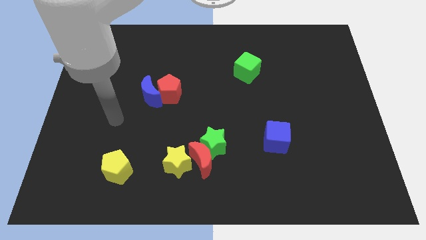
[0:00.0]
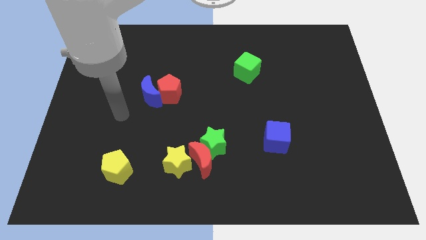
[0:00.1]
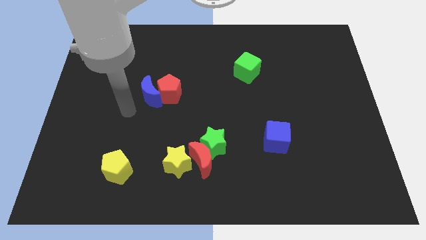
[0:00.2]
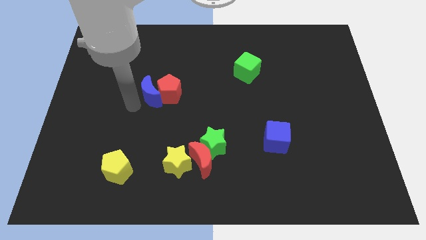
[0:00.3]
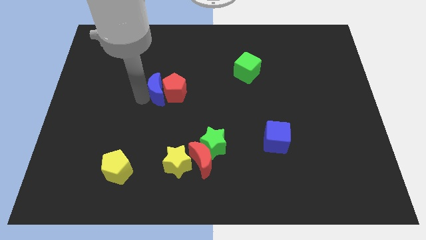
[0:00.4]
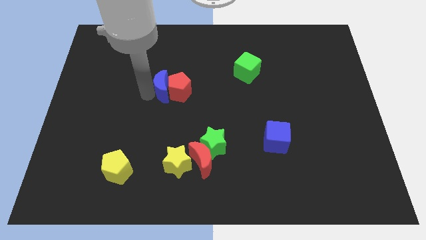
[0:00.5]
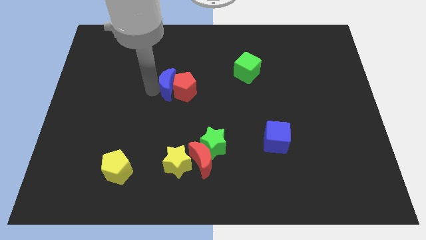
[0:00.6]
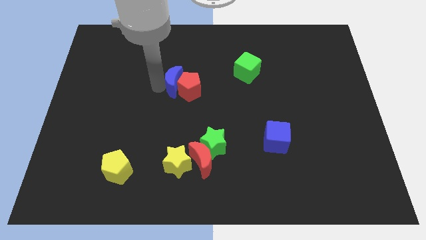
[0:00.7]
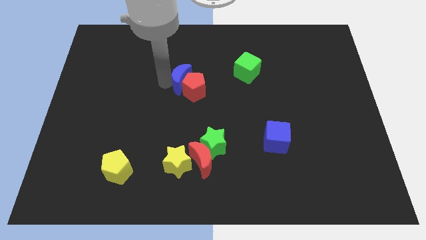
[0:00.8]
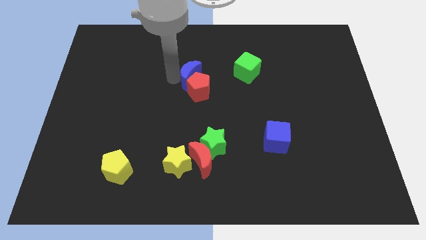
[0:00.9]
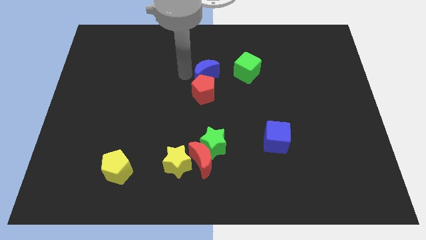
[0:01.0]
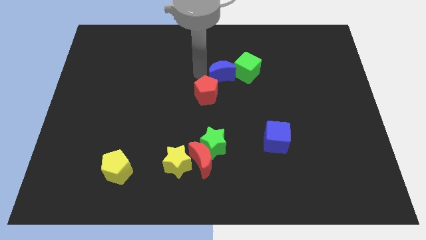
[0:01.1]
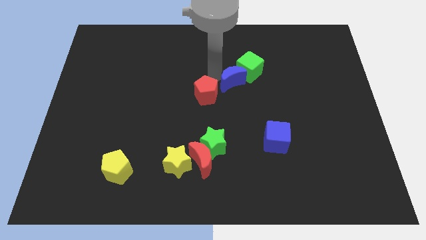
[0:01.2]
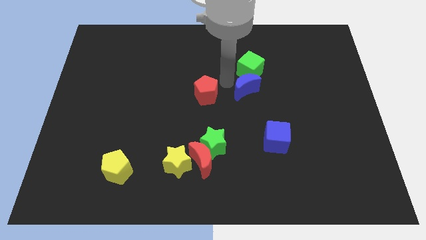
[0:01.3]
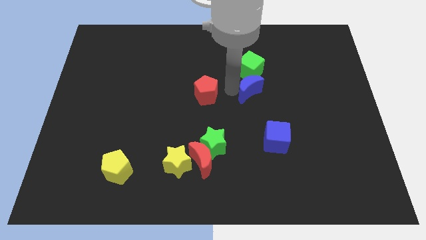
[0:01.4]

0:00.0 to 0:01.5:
move the red pentagon away from the blue moon

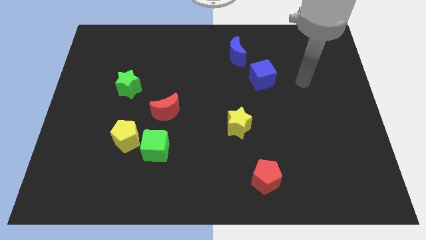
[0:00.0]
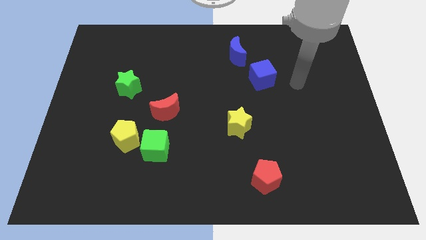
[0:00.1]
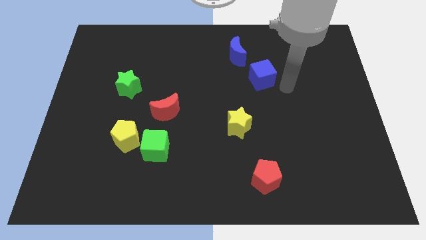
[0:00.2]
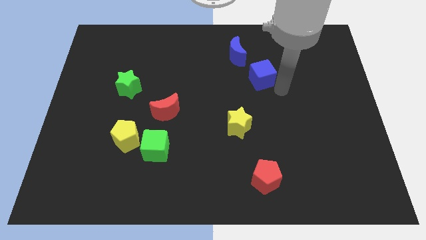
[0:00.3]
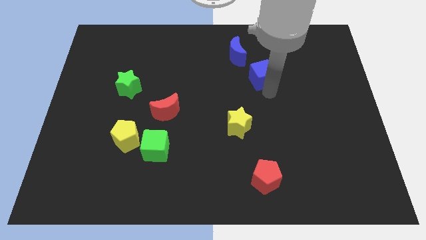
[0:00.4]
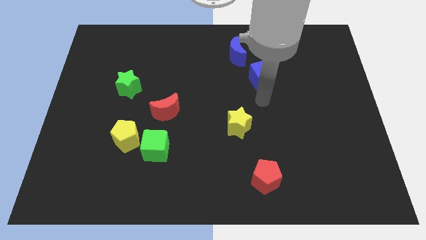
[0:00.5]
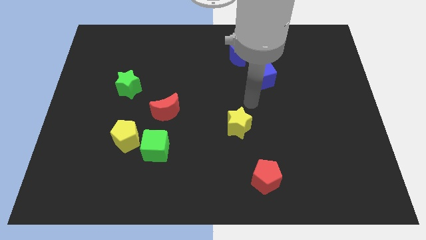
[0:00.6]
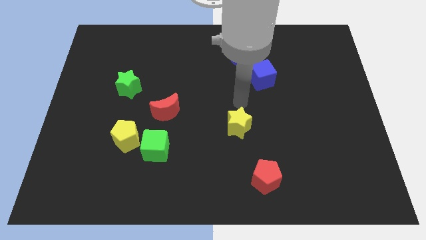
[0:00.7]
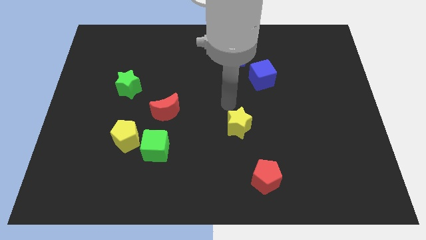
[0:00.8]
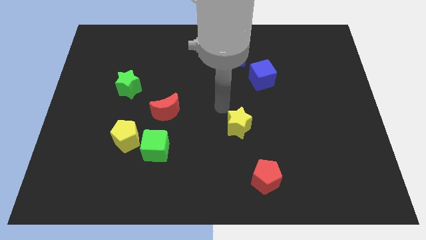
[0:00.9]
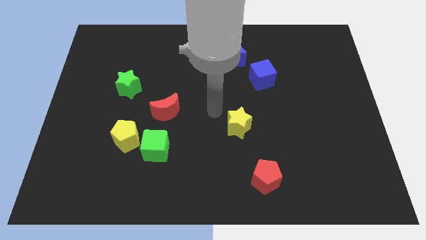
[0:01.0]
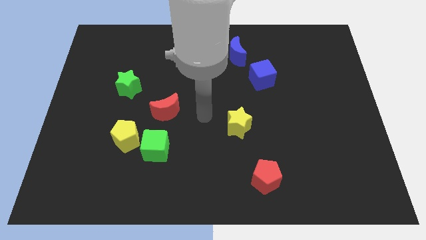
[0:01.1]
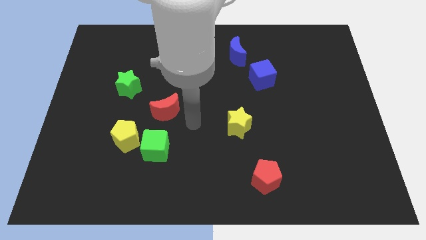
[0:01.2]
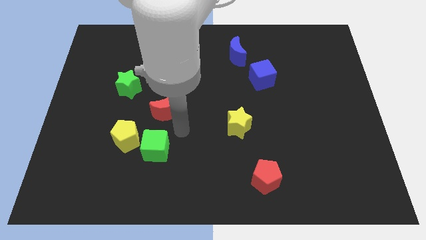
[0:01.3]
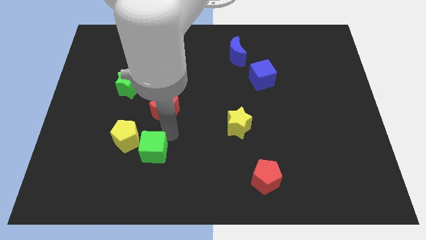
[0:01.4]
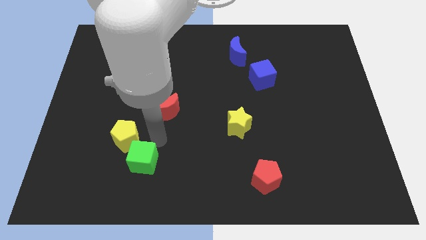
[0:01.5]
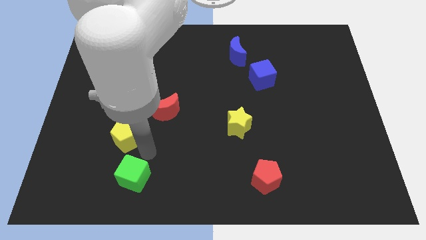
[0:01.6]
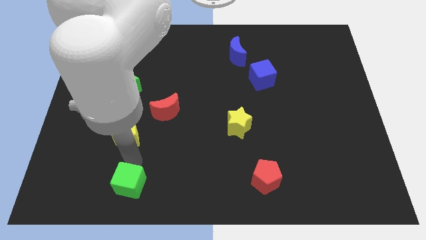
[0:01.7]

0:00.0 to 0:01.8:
pull the yellow pentagon apart from the green cube

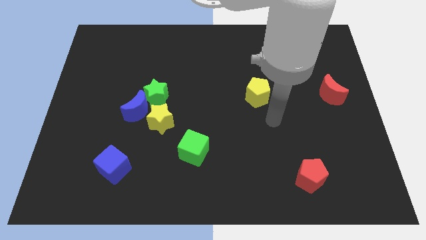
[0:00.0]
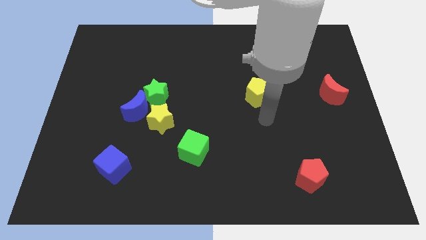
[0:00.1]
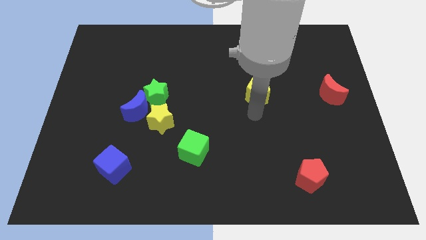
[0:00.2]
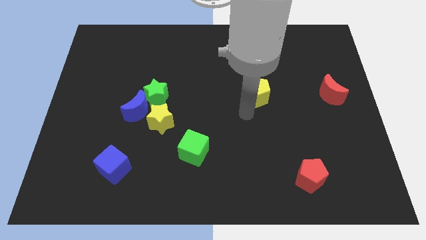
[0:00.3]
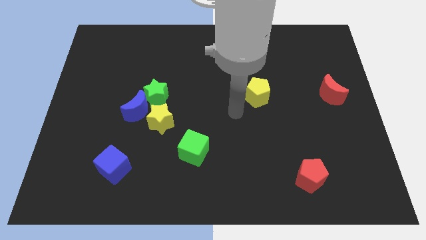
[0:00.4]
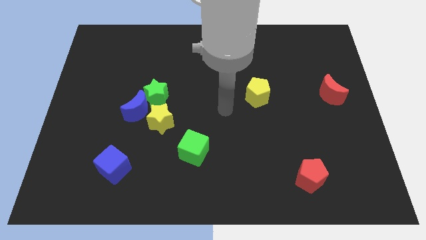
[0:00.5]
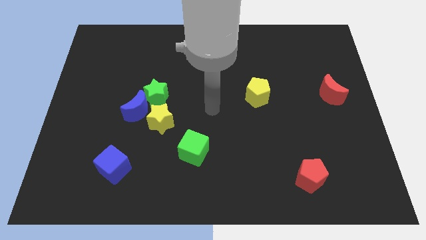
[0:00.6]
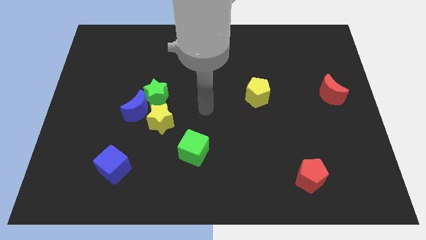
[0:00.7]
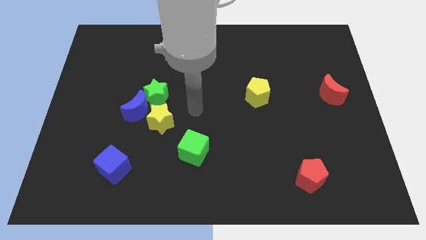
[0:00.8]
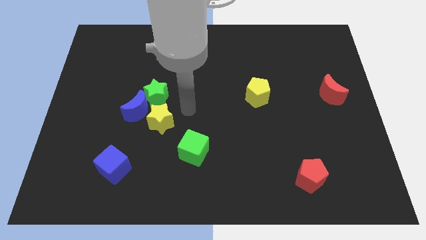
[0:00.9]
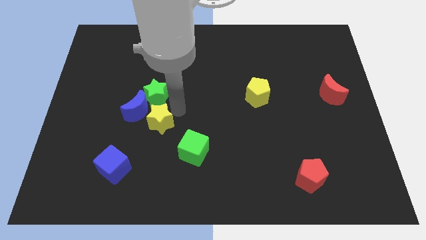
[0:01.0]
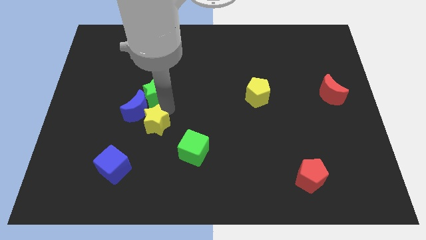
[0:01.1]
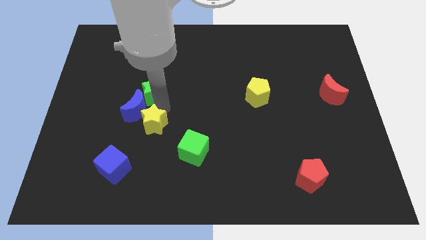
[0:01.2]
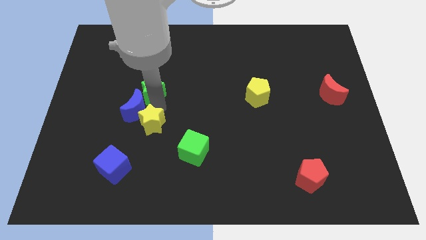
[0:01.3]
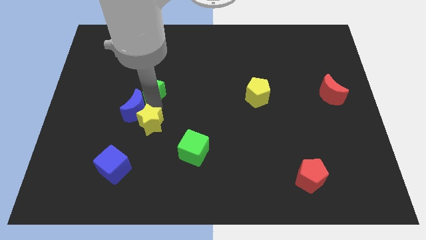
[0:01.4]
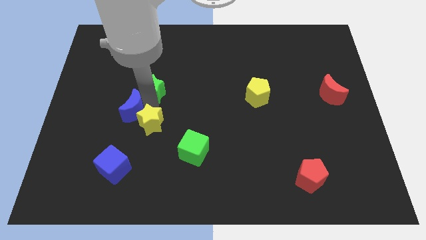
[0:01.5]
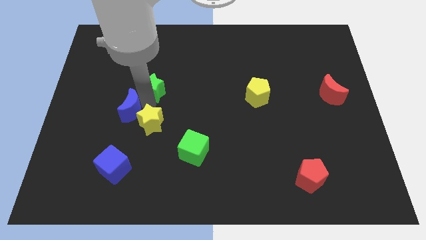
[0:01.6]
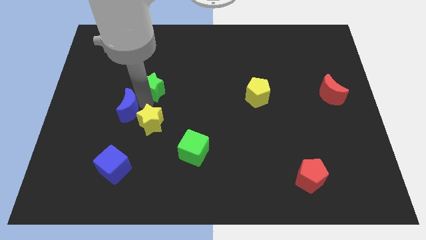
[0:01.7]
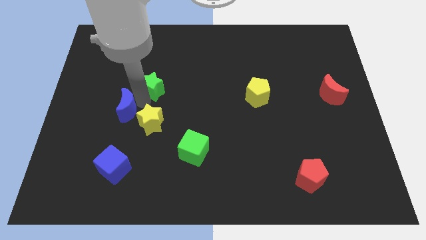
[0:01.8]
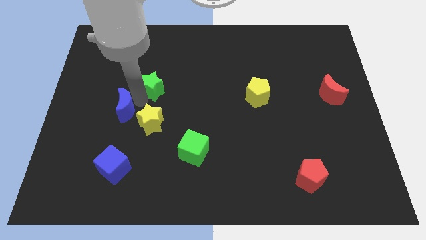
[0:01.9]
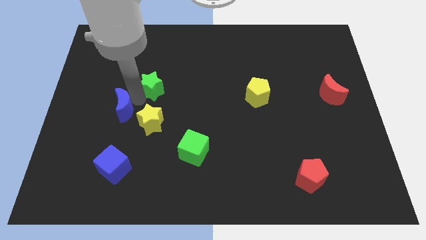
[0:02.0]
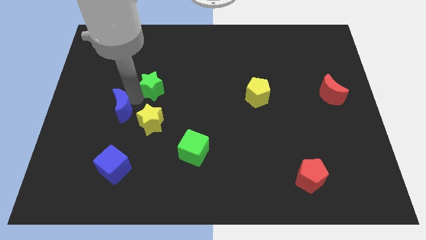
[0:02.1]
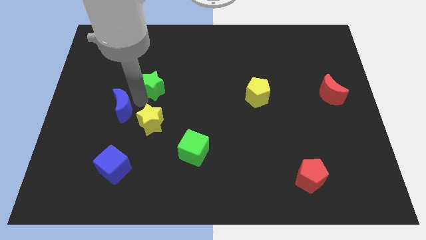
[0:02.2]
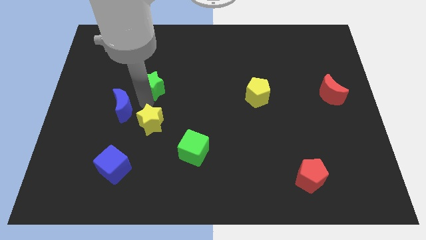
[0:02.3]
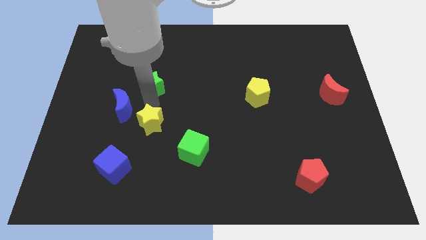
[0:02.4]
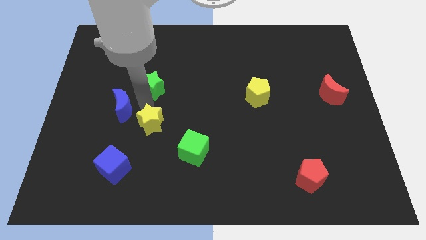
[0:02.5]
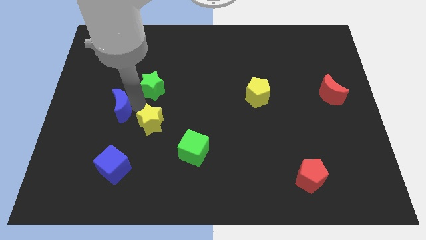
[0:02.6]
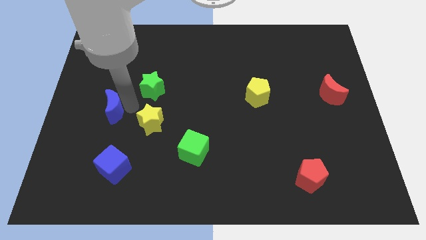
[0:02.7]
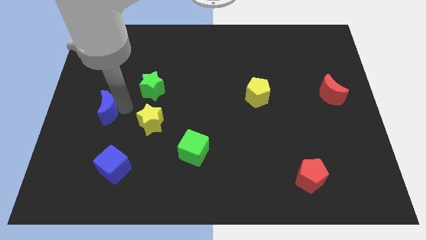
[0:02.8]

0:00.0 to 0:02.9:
separate the blue moon from the green star and yellow star

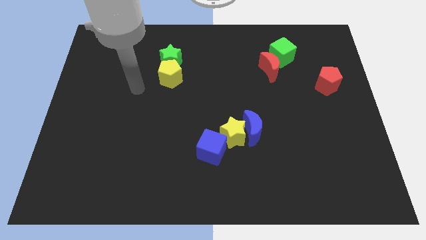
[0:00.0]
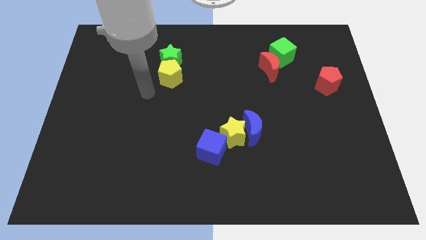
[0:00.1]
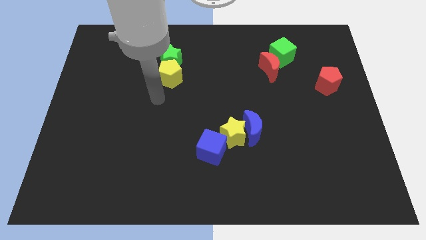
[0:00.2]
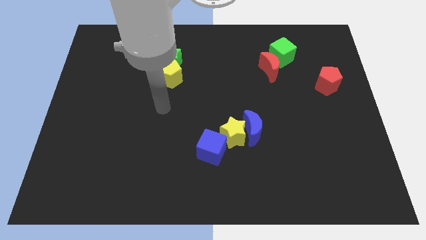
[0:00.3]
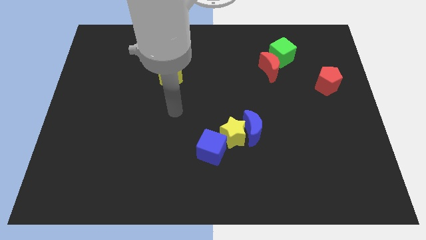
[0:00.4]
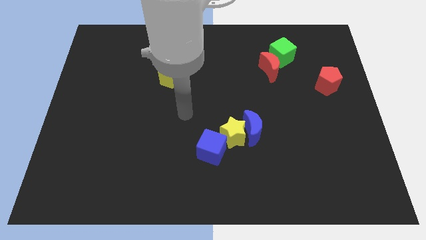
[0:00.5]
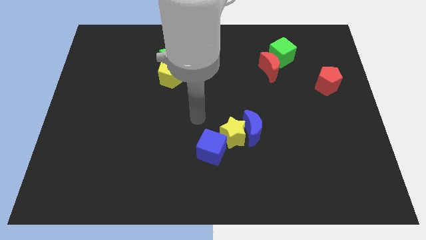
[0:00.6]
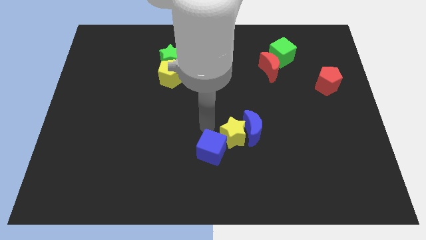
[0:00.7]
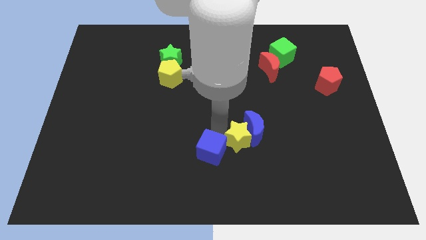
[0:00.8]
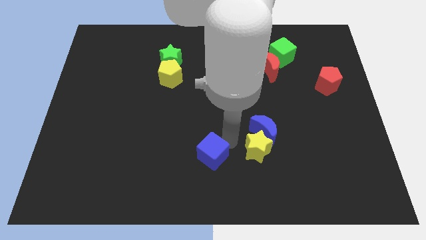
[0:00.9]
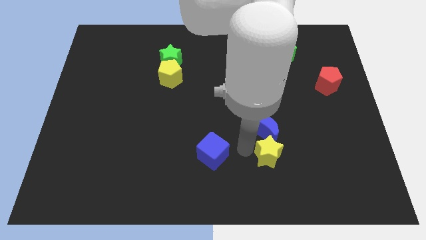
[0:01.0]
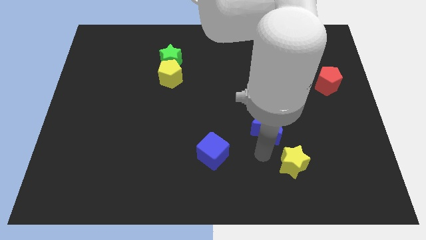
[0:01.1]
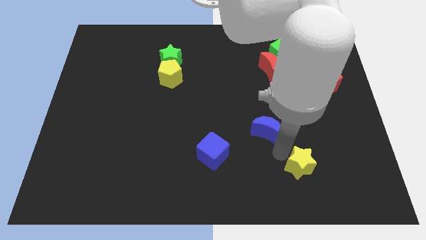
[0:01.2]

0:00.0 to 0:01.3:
separate the blue moon from the yellow star

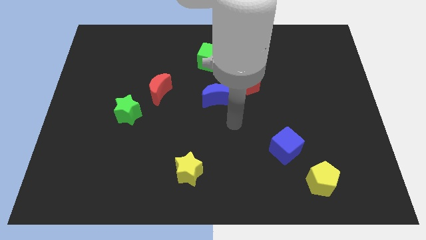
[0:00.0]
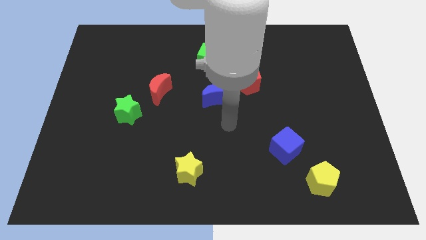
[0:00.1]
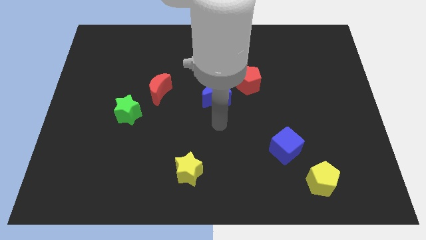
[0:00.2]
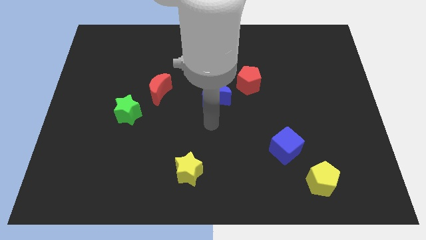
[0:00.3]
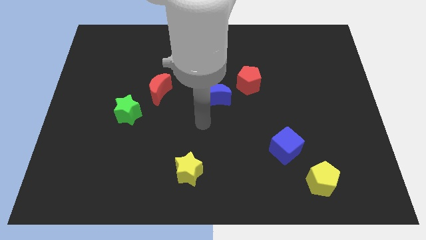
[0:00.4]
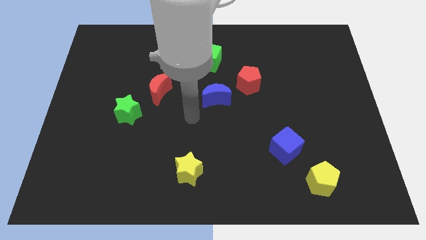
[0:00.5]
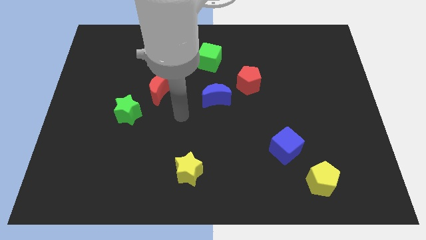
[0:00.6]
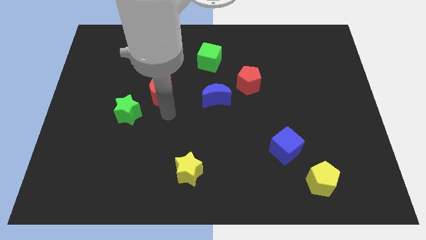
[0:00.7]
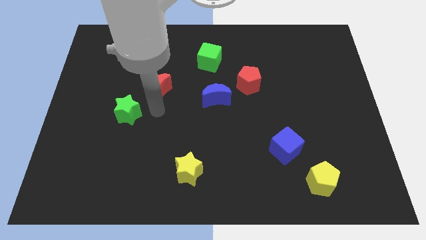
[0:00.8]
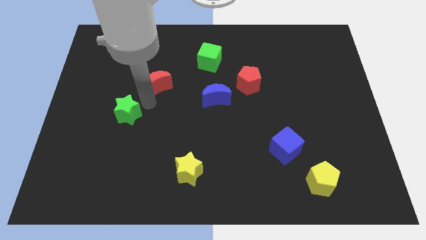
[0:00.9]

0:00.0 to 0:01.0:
pull the red moon apart from the green star

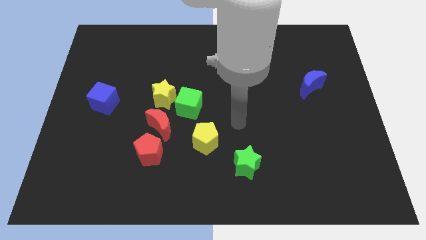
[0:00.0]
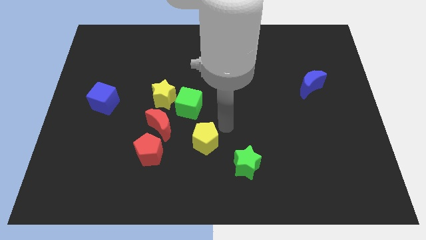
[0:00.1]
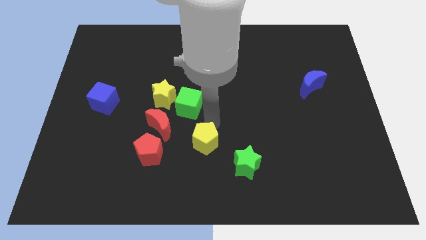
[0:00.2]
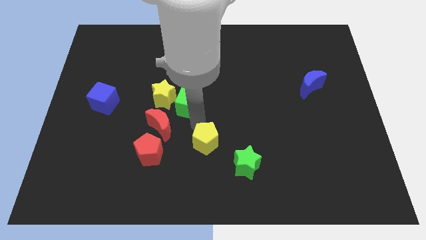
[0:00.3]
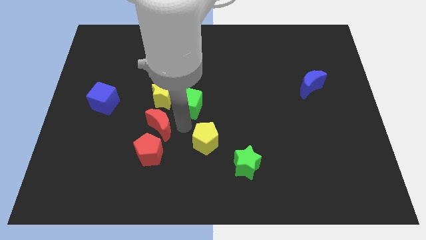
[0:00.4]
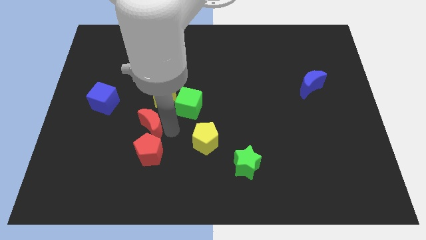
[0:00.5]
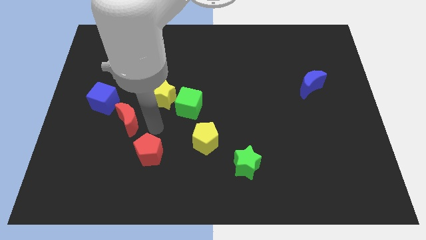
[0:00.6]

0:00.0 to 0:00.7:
pull the red pentagon apart from the red moon

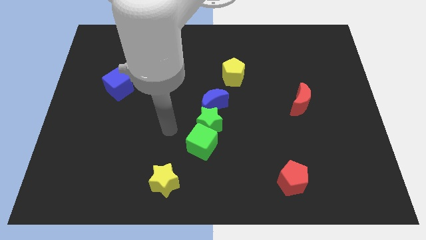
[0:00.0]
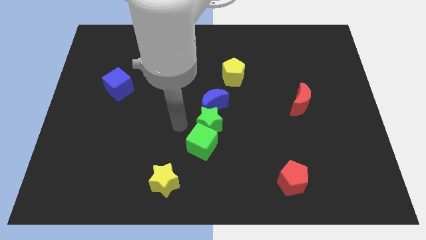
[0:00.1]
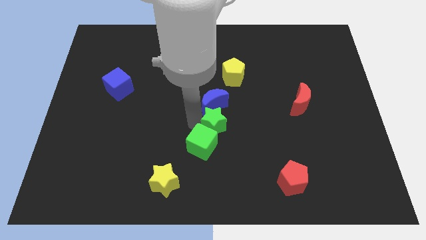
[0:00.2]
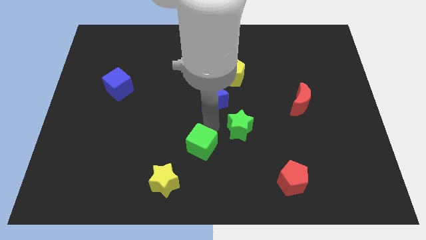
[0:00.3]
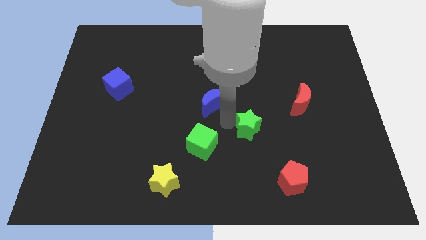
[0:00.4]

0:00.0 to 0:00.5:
separate the blue moon from the green star
